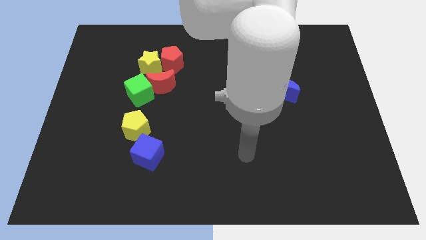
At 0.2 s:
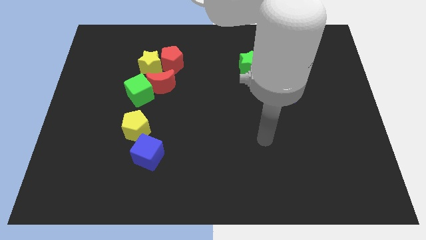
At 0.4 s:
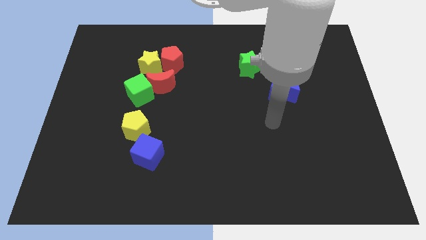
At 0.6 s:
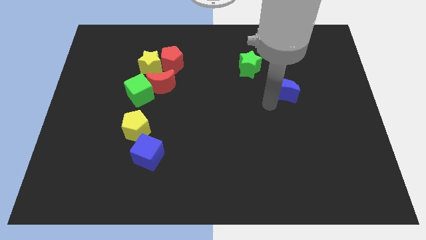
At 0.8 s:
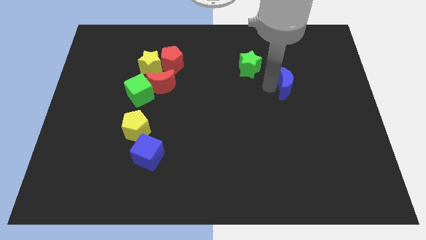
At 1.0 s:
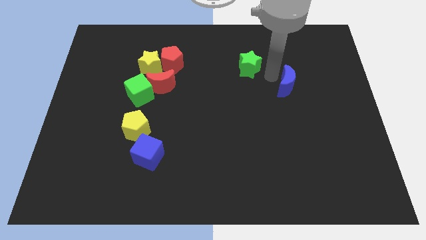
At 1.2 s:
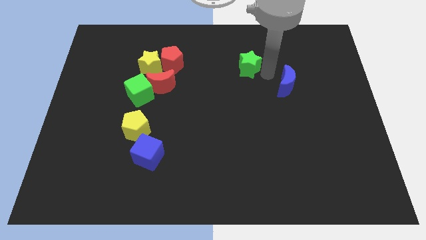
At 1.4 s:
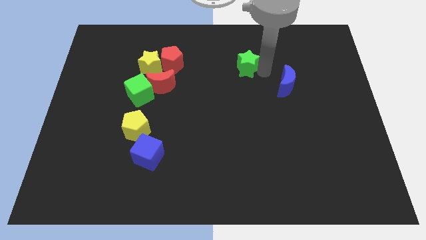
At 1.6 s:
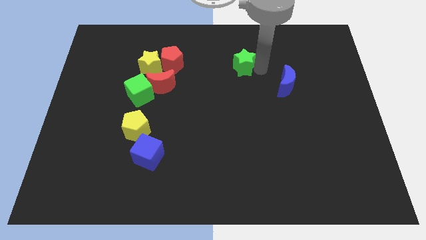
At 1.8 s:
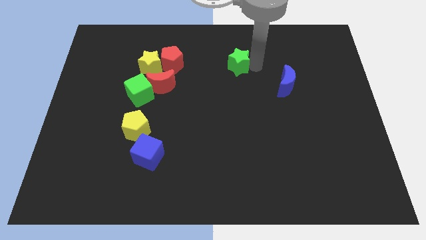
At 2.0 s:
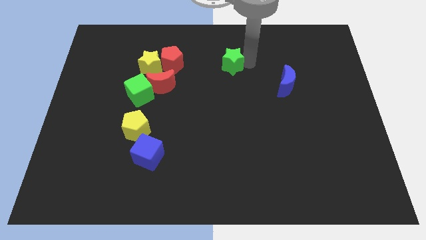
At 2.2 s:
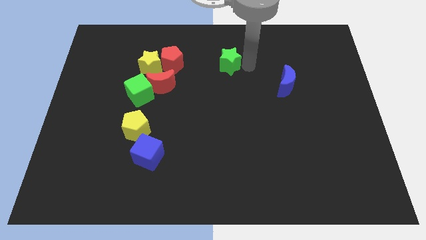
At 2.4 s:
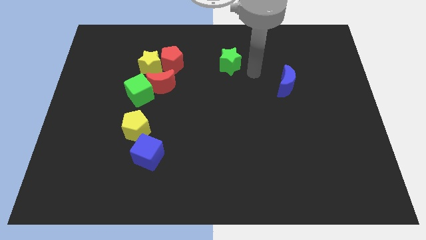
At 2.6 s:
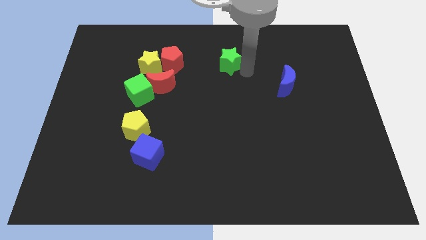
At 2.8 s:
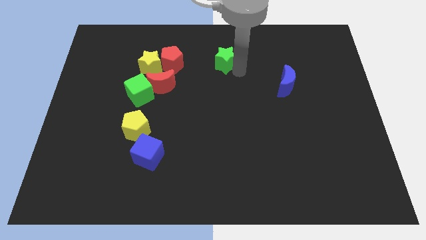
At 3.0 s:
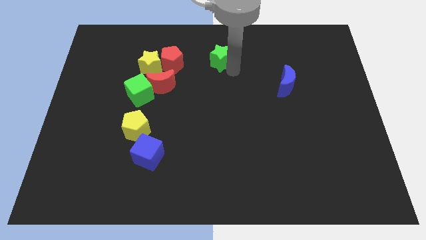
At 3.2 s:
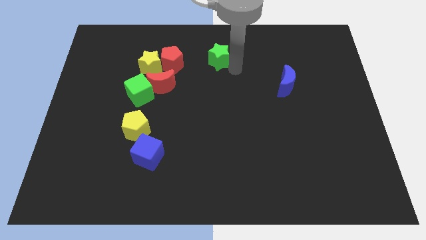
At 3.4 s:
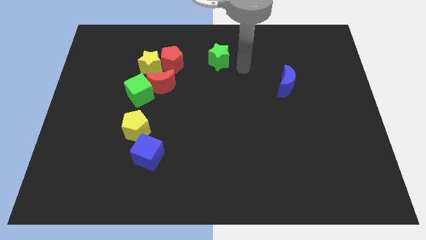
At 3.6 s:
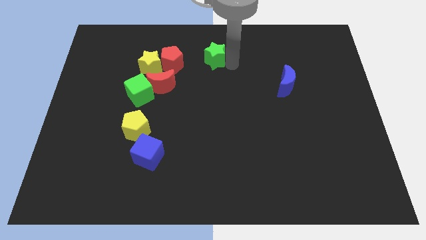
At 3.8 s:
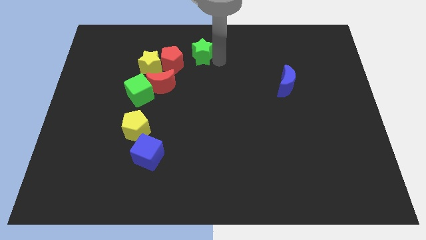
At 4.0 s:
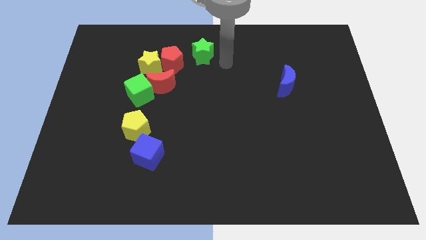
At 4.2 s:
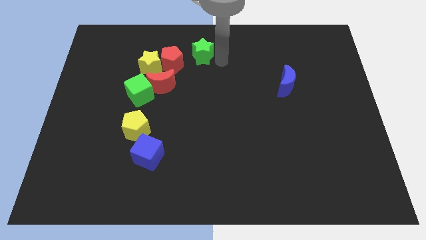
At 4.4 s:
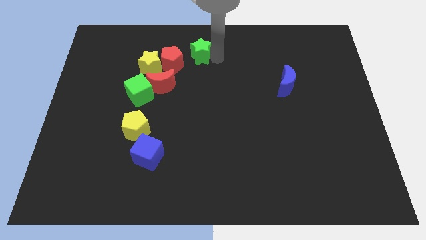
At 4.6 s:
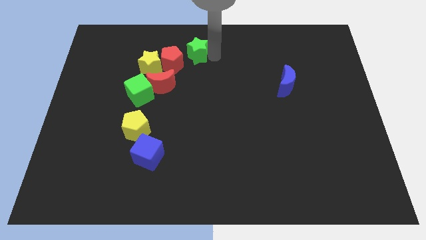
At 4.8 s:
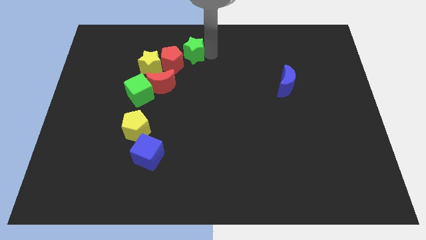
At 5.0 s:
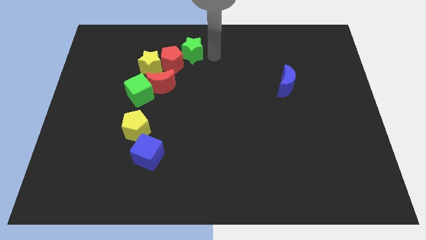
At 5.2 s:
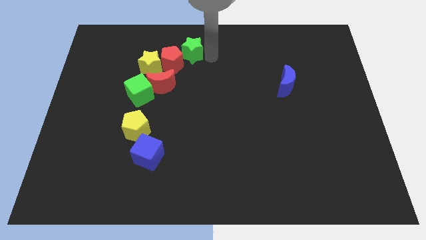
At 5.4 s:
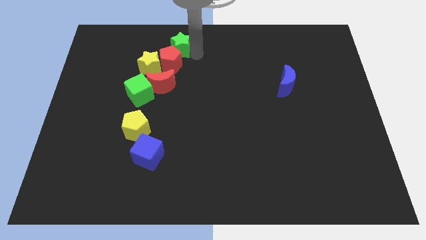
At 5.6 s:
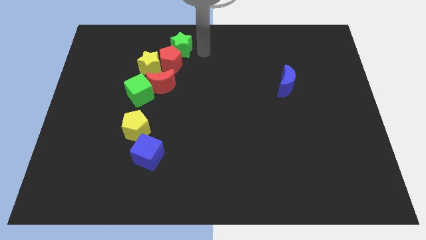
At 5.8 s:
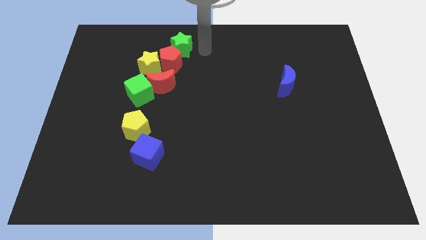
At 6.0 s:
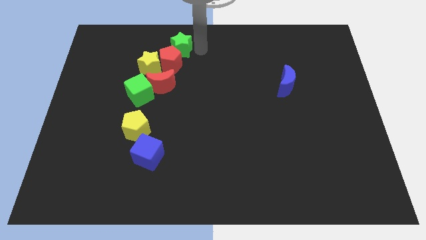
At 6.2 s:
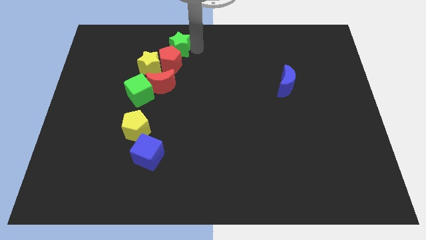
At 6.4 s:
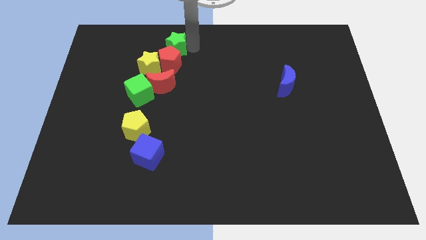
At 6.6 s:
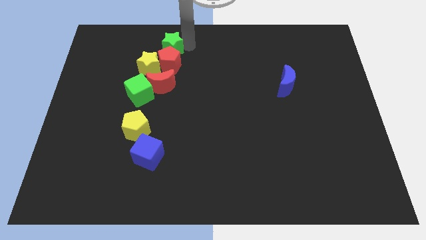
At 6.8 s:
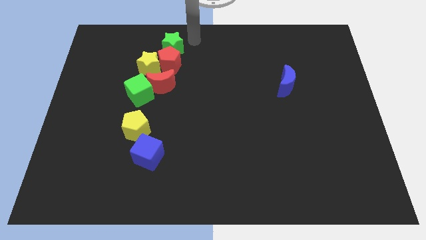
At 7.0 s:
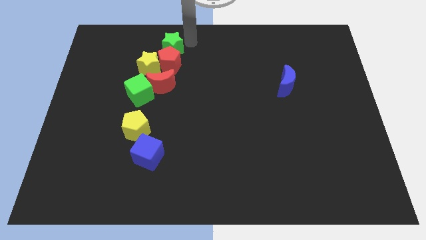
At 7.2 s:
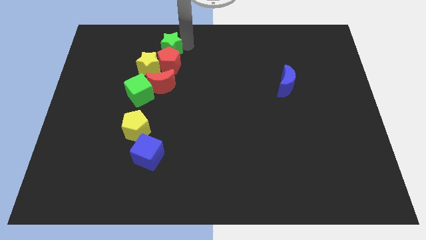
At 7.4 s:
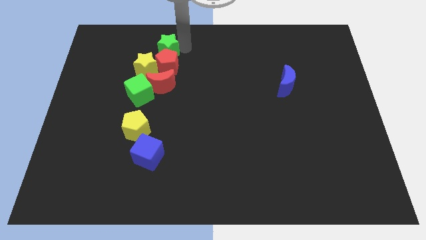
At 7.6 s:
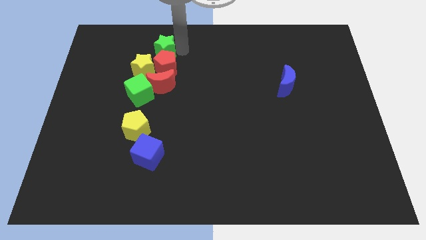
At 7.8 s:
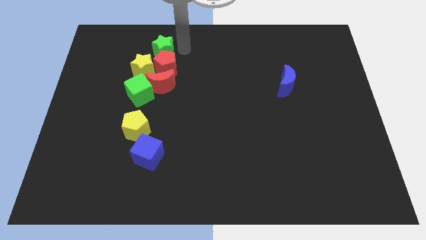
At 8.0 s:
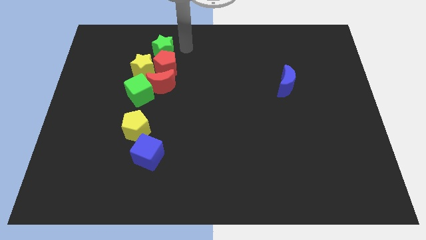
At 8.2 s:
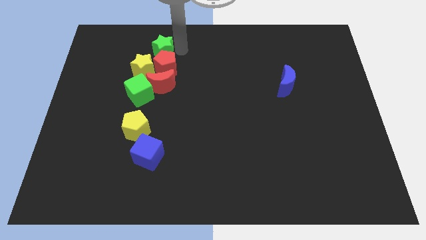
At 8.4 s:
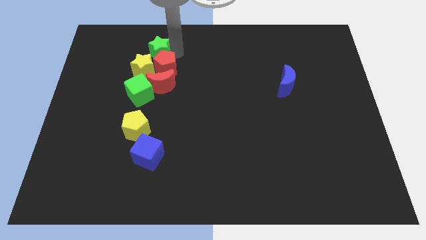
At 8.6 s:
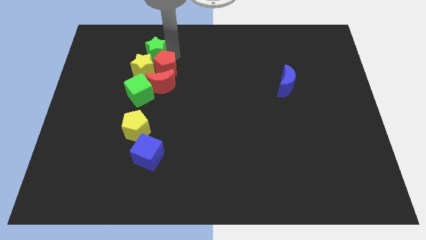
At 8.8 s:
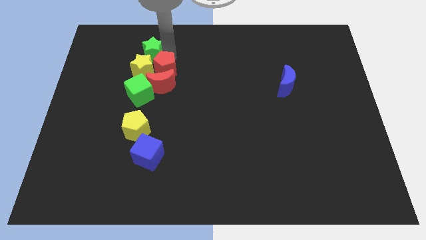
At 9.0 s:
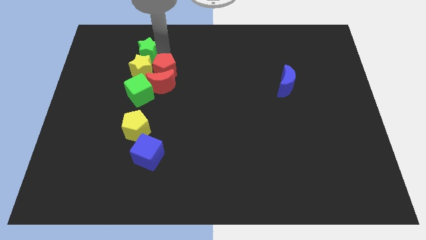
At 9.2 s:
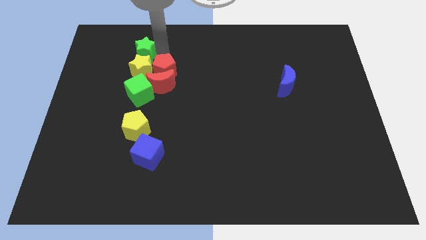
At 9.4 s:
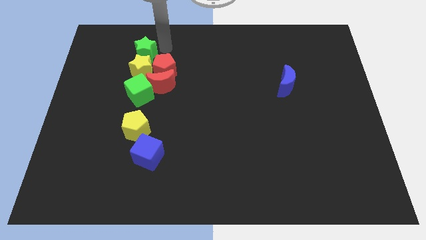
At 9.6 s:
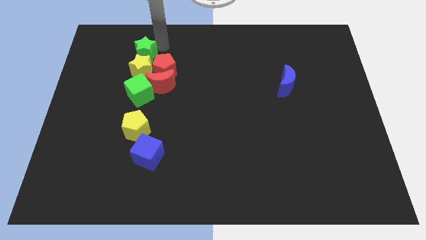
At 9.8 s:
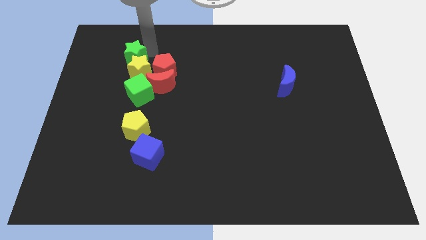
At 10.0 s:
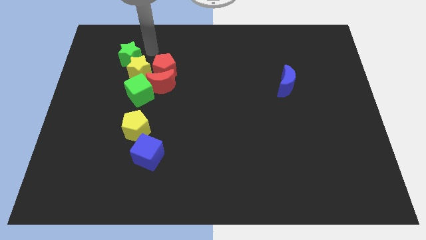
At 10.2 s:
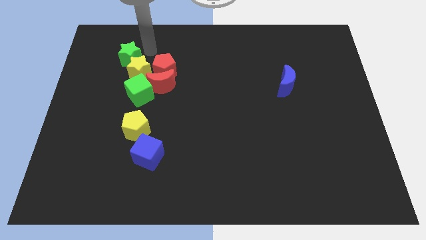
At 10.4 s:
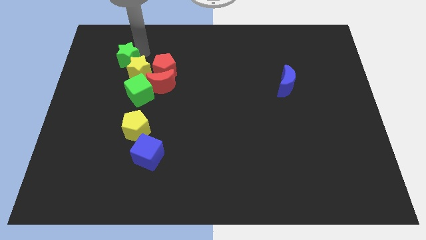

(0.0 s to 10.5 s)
push the green star left of the yellow star

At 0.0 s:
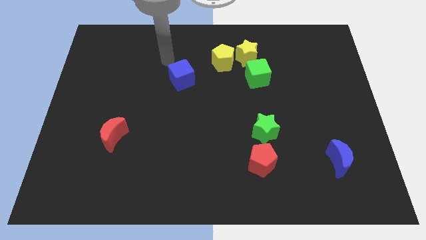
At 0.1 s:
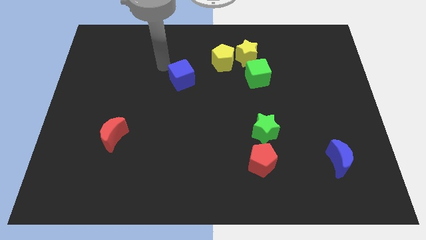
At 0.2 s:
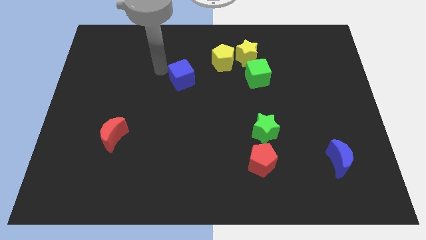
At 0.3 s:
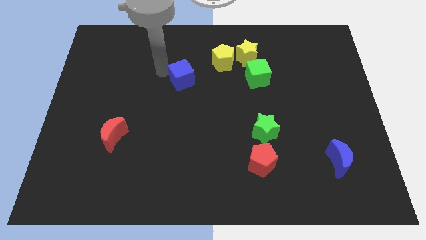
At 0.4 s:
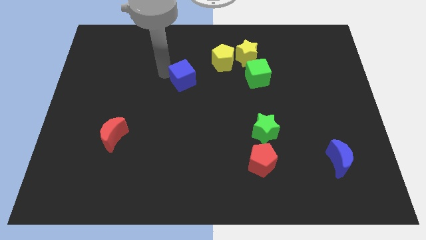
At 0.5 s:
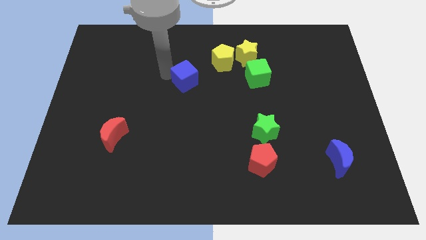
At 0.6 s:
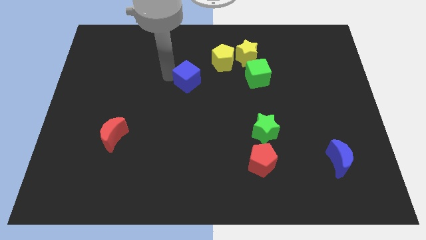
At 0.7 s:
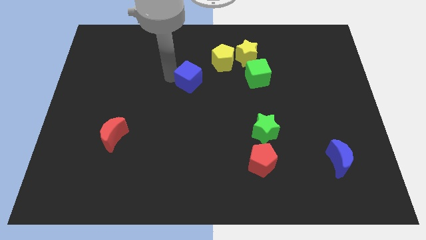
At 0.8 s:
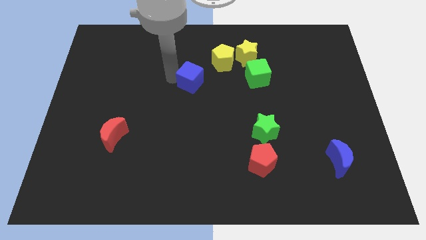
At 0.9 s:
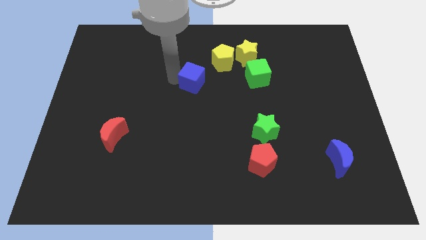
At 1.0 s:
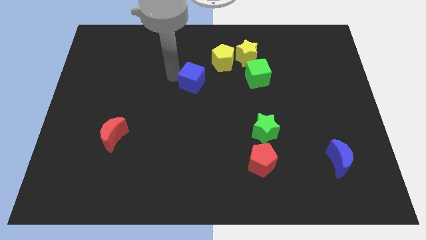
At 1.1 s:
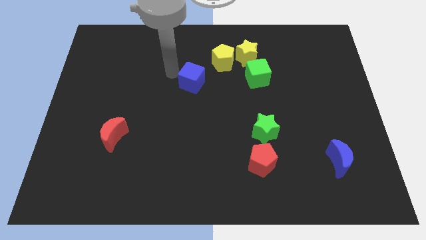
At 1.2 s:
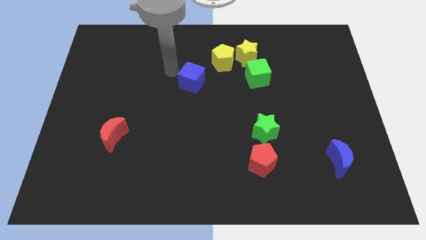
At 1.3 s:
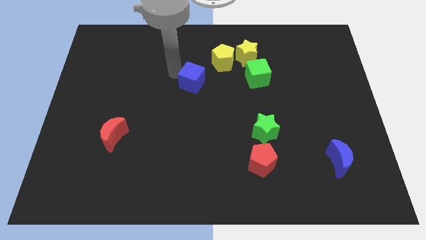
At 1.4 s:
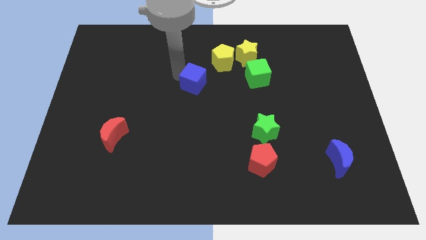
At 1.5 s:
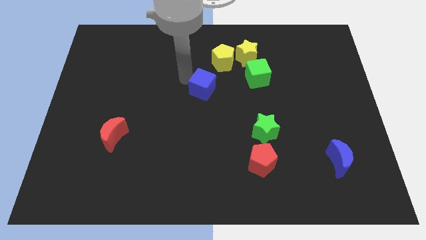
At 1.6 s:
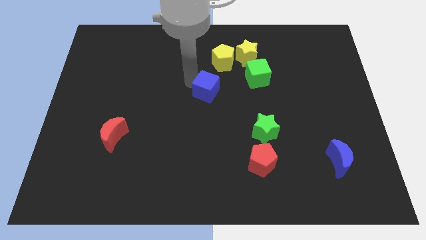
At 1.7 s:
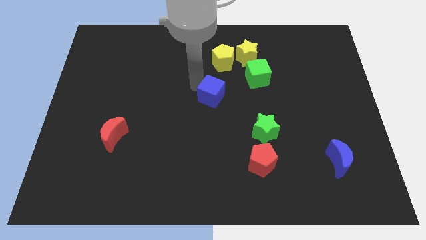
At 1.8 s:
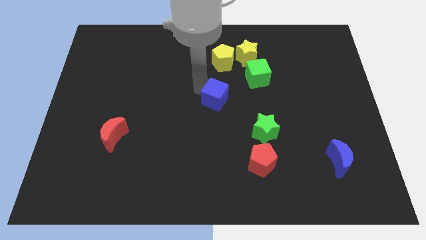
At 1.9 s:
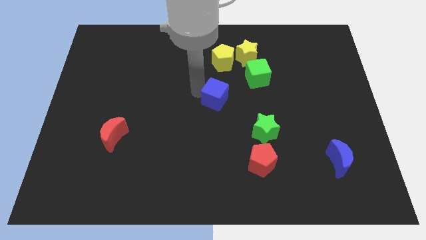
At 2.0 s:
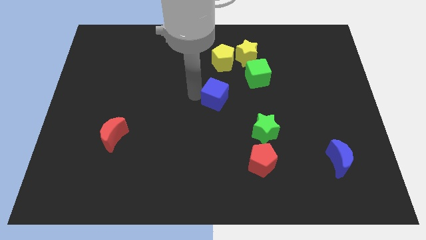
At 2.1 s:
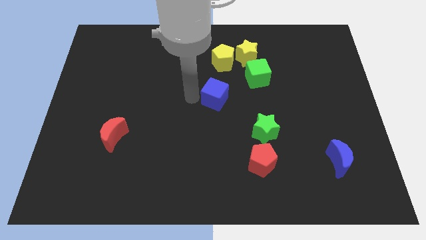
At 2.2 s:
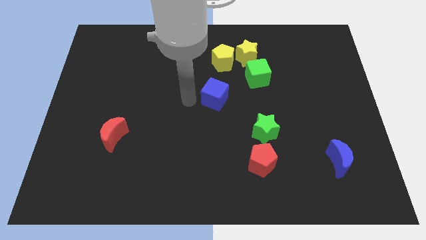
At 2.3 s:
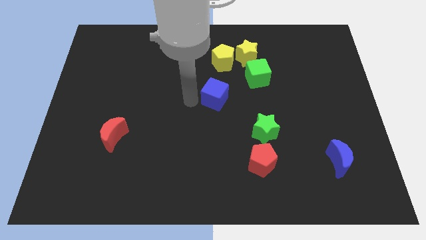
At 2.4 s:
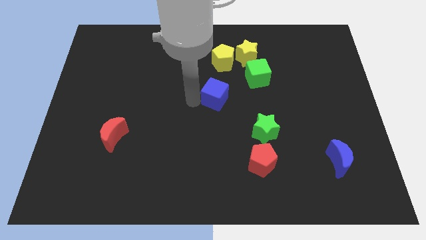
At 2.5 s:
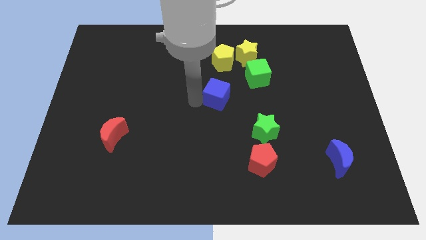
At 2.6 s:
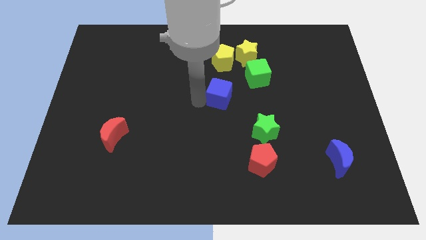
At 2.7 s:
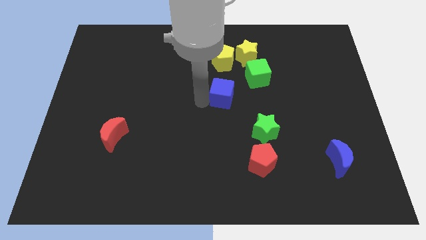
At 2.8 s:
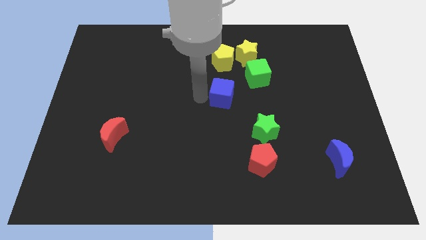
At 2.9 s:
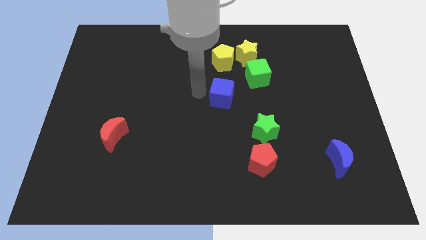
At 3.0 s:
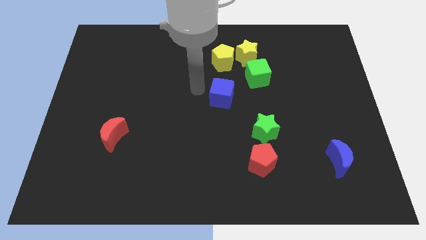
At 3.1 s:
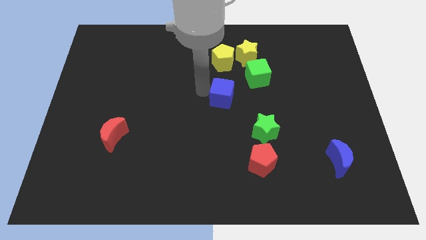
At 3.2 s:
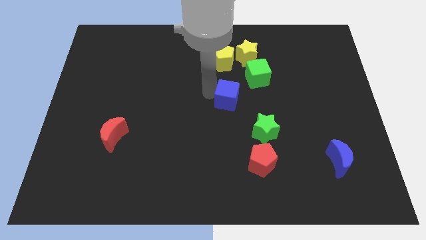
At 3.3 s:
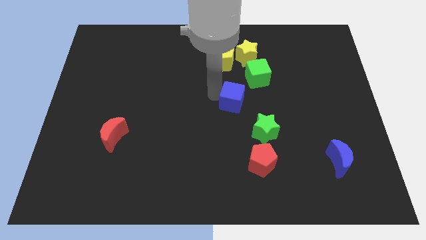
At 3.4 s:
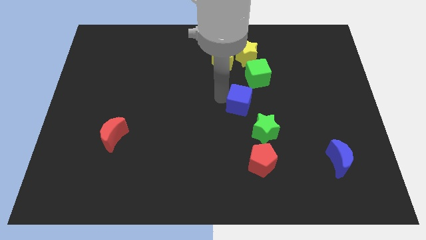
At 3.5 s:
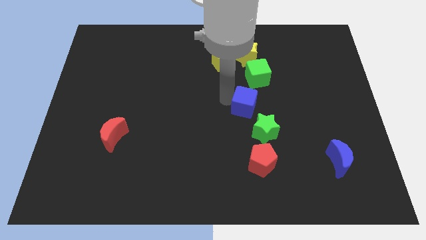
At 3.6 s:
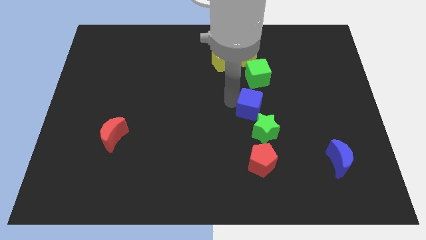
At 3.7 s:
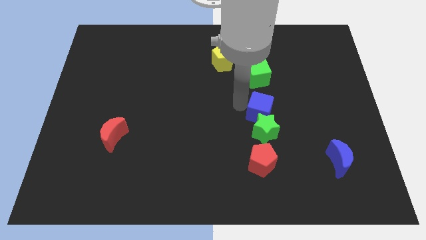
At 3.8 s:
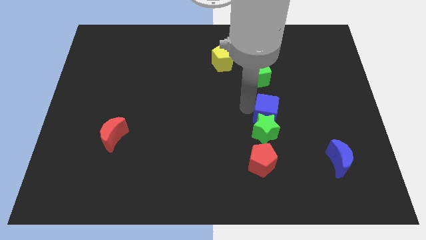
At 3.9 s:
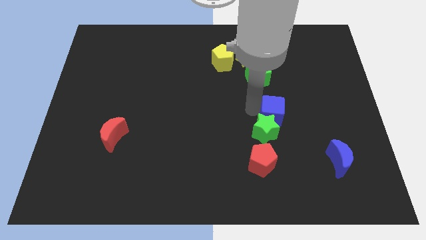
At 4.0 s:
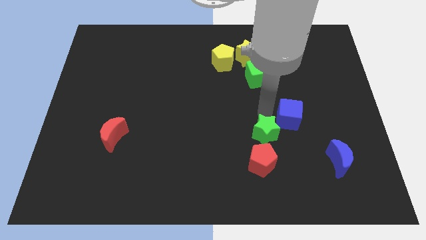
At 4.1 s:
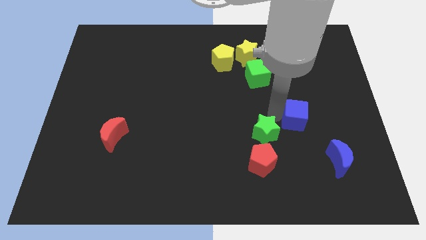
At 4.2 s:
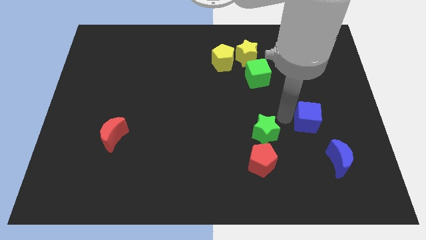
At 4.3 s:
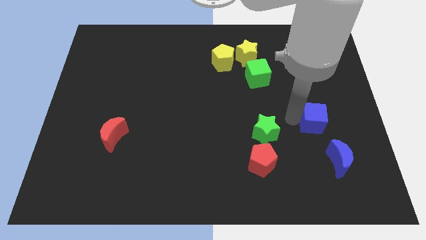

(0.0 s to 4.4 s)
slide the blue cube to the top of the blue moon
